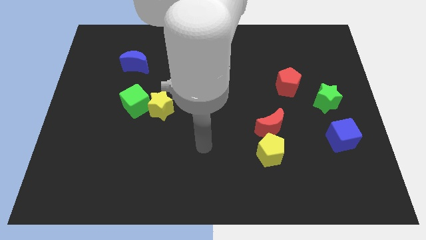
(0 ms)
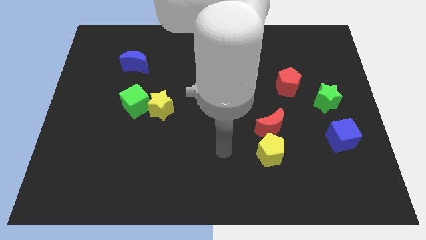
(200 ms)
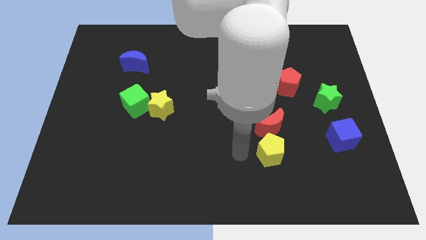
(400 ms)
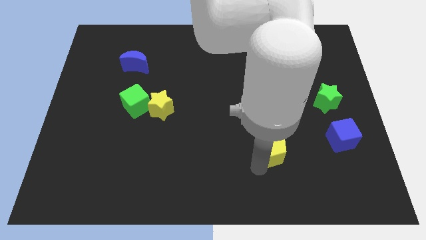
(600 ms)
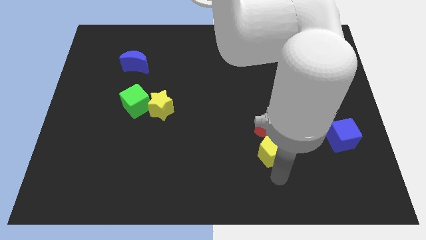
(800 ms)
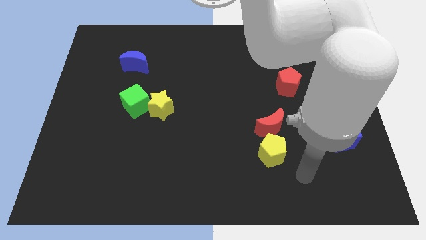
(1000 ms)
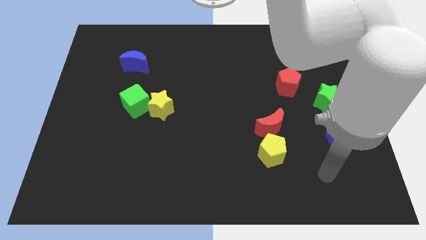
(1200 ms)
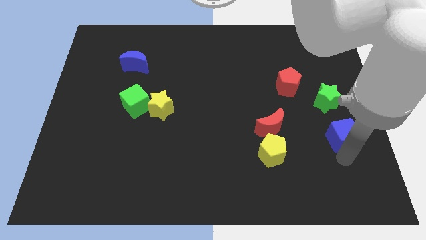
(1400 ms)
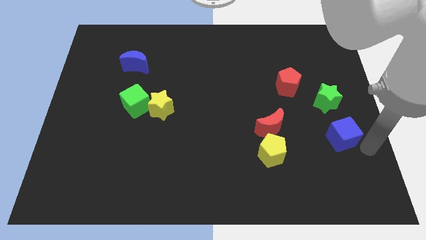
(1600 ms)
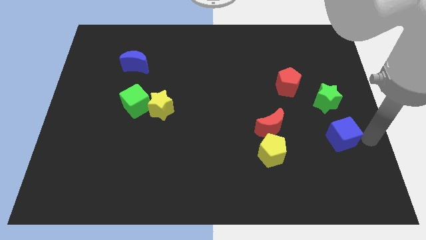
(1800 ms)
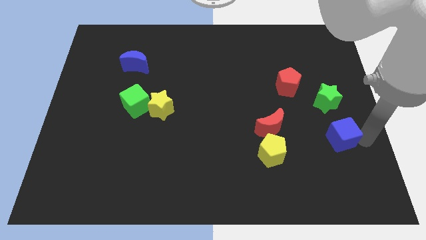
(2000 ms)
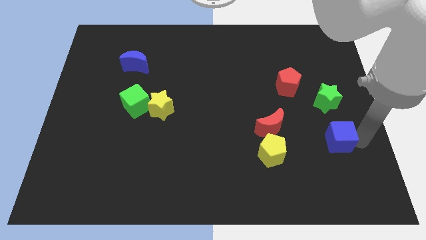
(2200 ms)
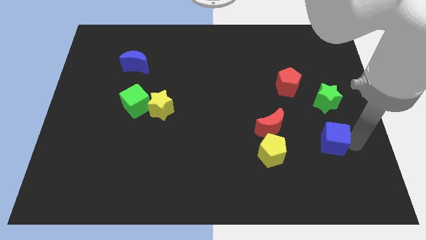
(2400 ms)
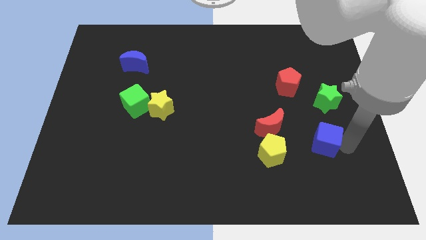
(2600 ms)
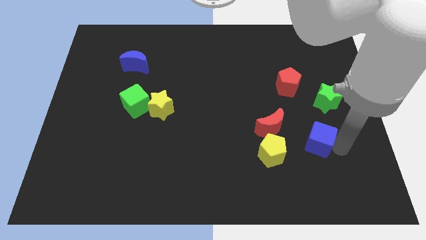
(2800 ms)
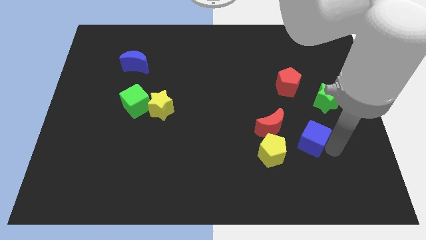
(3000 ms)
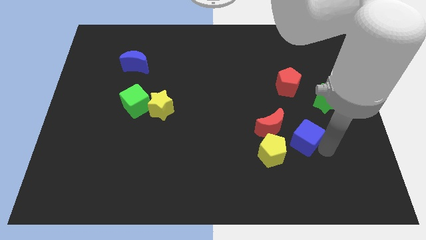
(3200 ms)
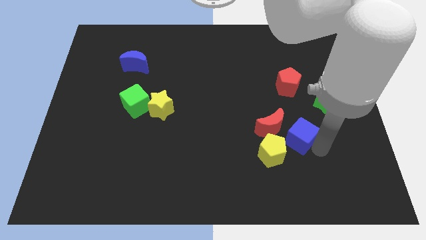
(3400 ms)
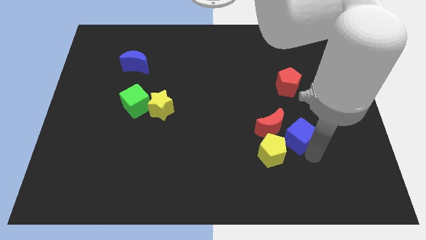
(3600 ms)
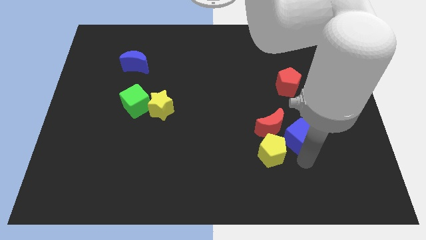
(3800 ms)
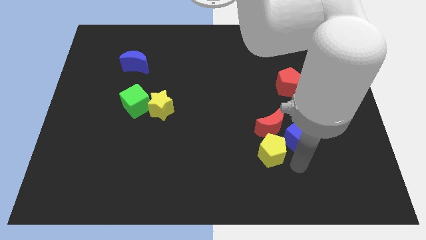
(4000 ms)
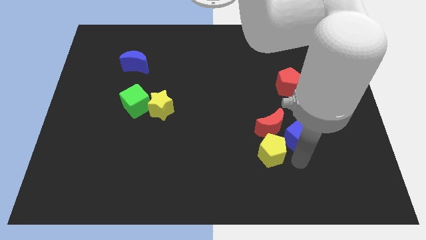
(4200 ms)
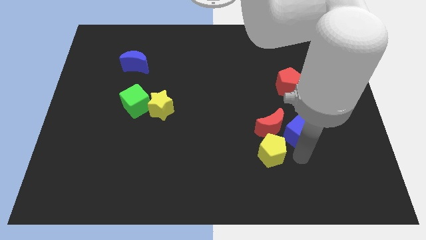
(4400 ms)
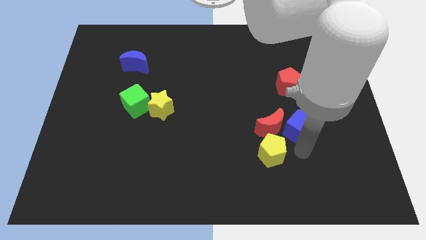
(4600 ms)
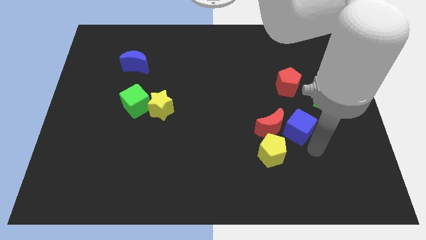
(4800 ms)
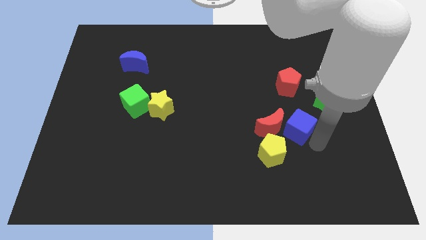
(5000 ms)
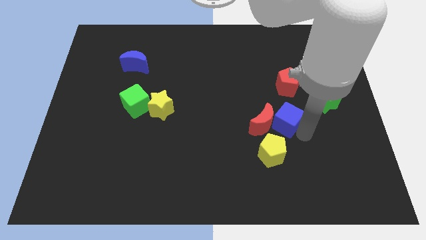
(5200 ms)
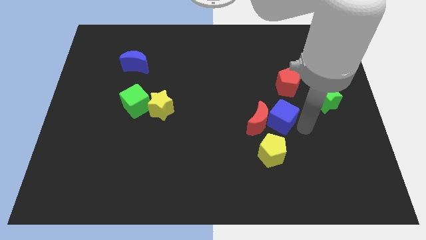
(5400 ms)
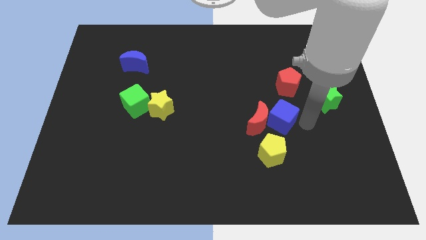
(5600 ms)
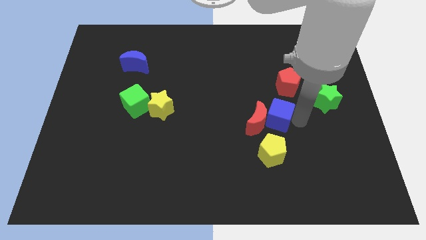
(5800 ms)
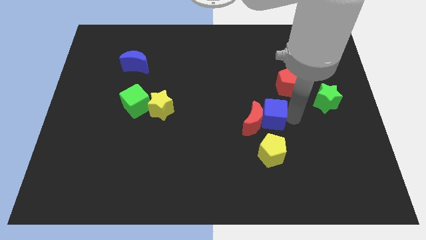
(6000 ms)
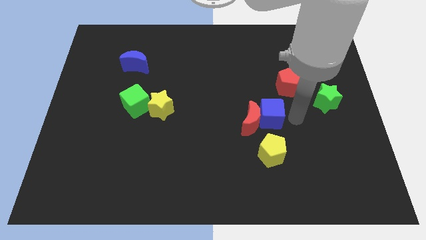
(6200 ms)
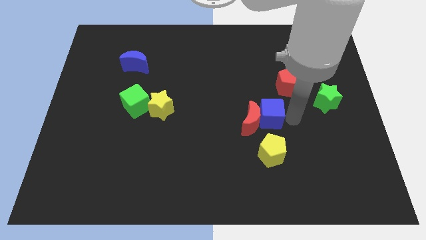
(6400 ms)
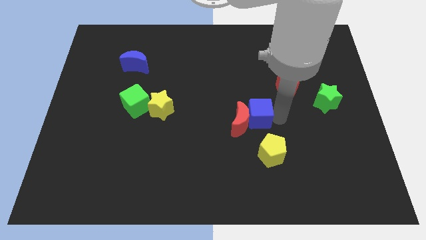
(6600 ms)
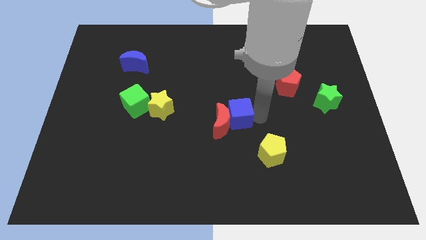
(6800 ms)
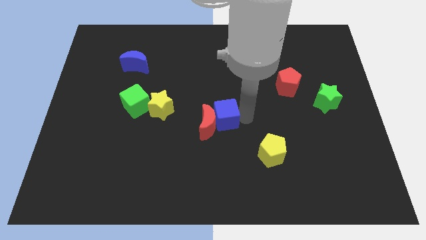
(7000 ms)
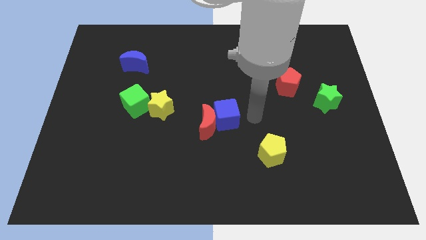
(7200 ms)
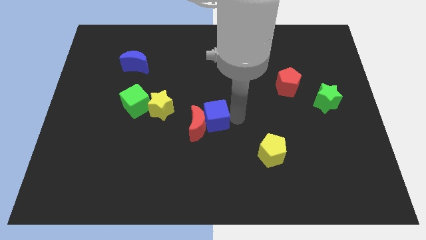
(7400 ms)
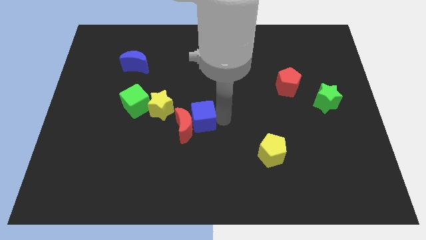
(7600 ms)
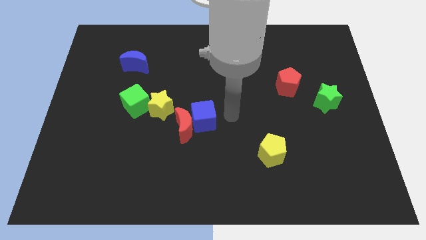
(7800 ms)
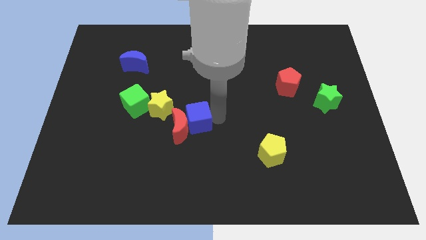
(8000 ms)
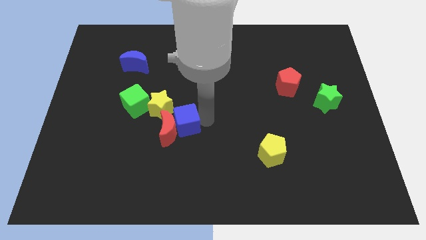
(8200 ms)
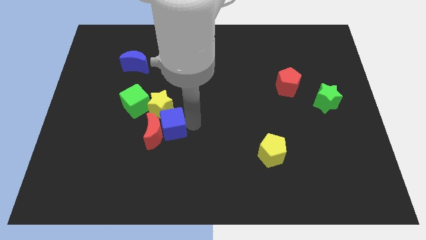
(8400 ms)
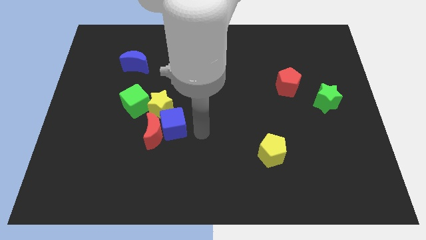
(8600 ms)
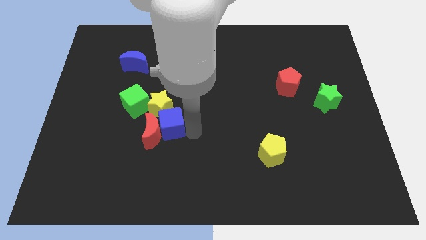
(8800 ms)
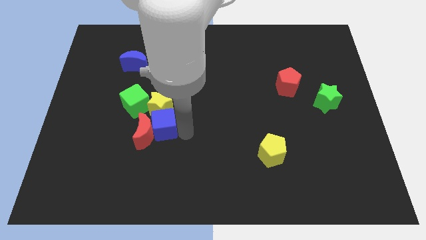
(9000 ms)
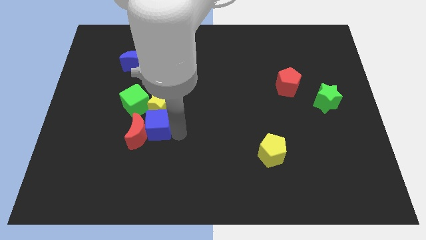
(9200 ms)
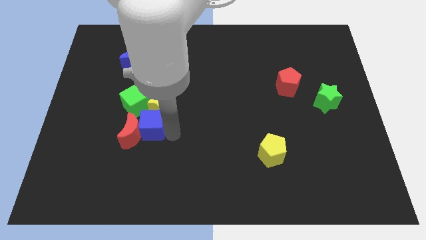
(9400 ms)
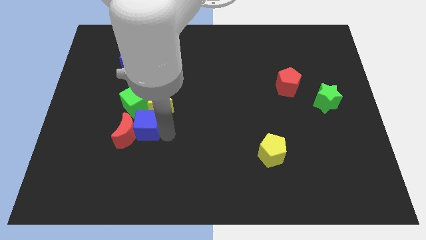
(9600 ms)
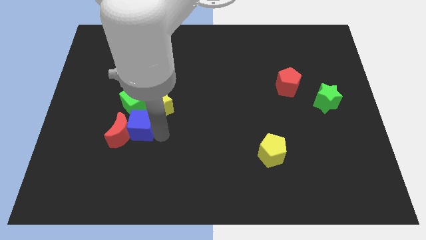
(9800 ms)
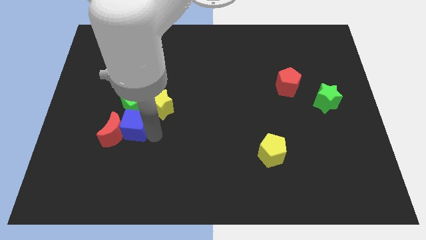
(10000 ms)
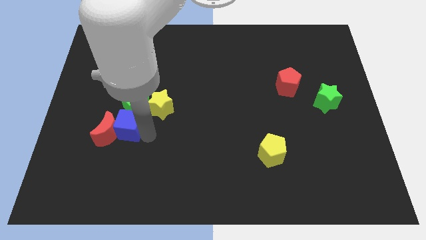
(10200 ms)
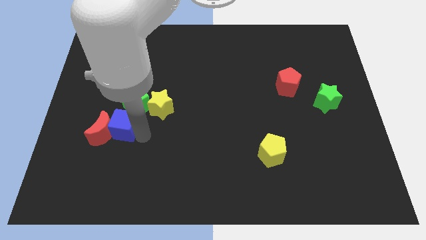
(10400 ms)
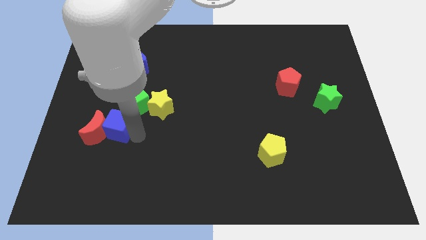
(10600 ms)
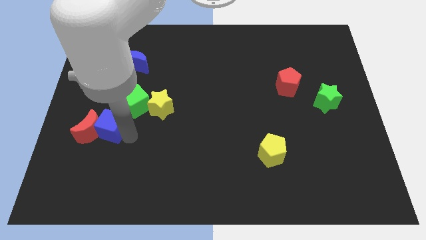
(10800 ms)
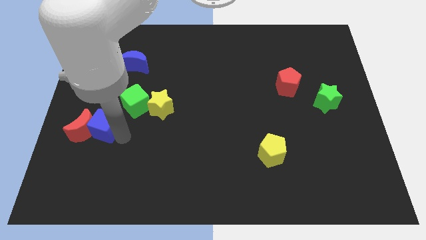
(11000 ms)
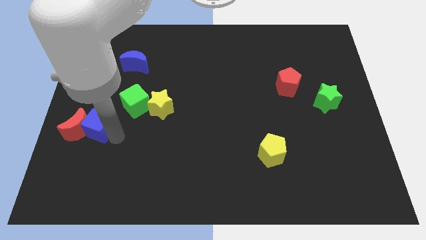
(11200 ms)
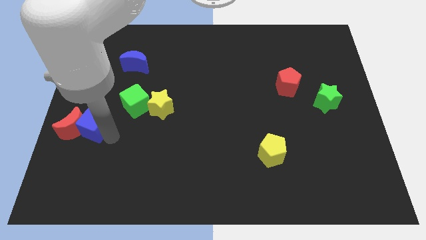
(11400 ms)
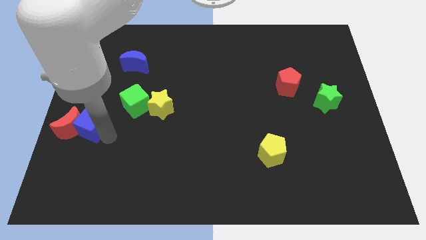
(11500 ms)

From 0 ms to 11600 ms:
move the blue cube to the left side of the board

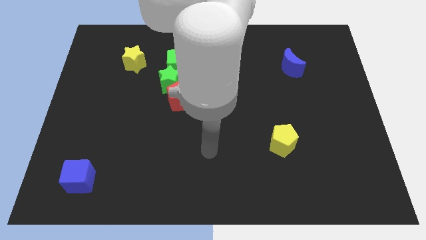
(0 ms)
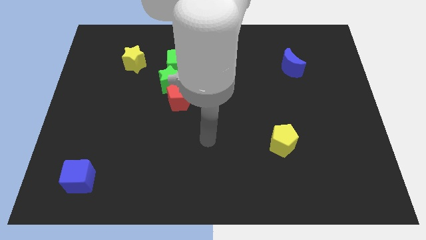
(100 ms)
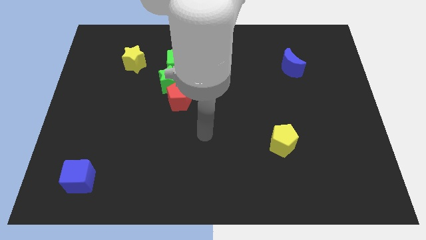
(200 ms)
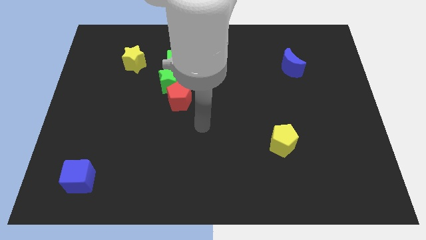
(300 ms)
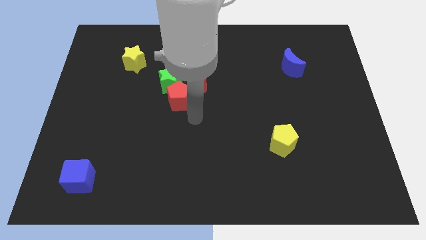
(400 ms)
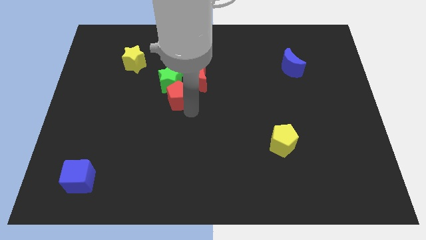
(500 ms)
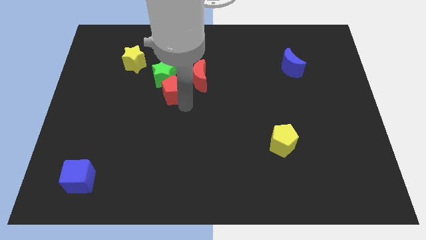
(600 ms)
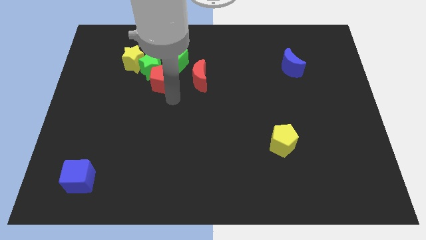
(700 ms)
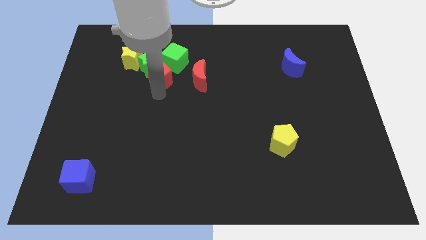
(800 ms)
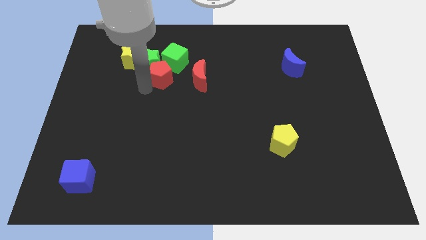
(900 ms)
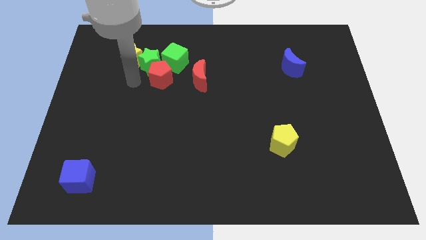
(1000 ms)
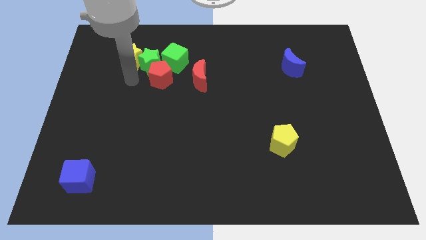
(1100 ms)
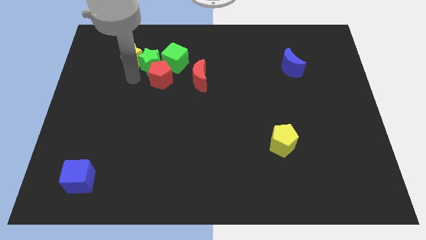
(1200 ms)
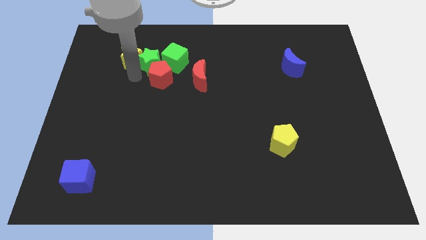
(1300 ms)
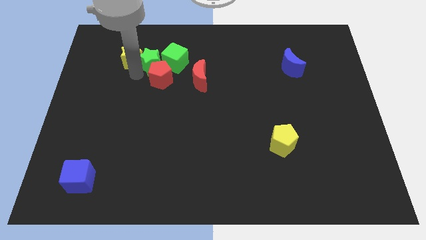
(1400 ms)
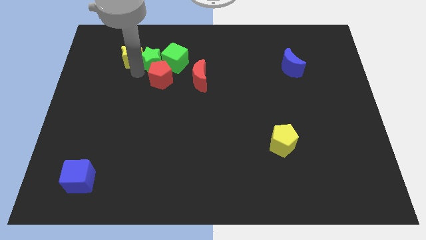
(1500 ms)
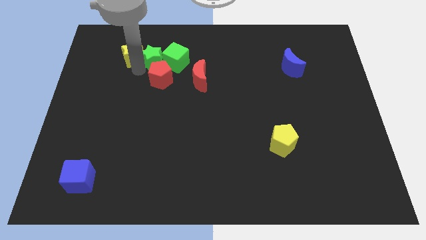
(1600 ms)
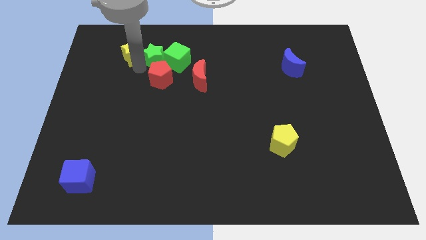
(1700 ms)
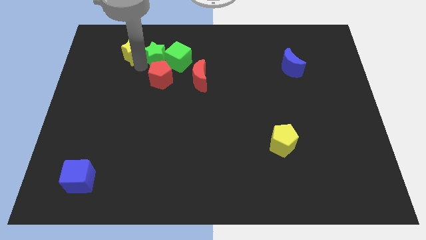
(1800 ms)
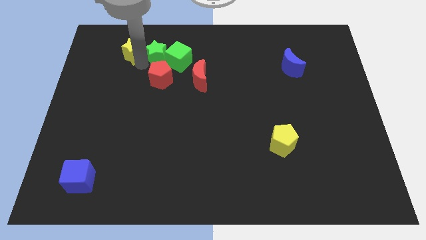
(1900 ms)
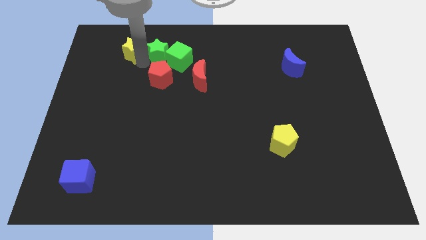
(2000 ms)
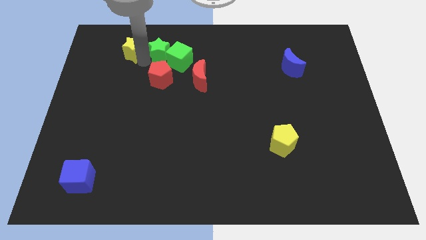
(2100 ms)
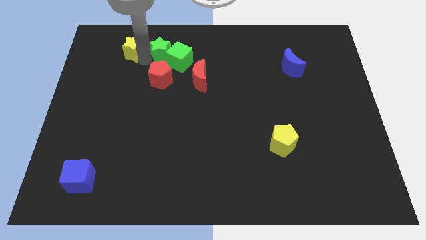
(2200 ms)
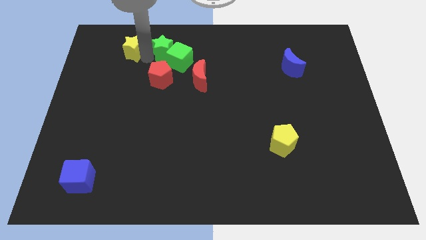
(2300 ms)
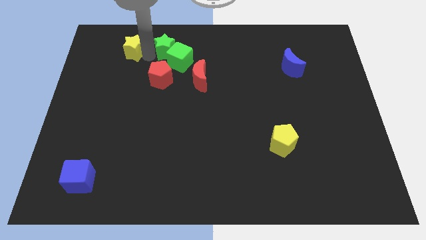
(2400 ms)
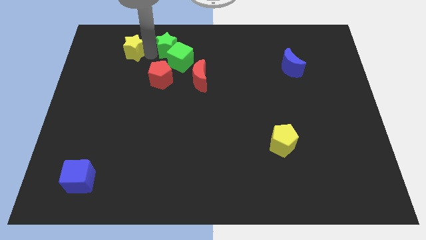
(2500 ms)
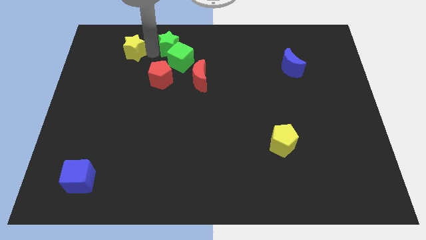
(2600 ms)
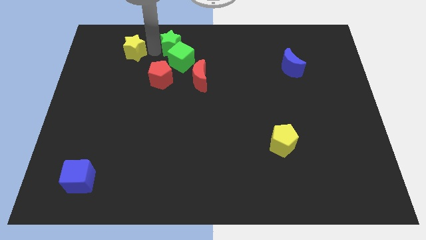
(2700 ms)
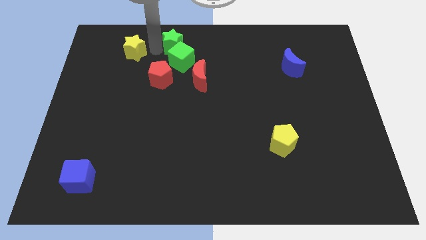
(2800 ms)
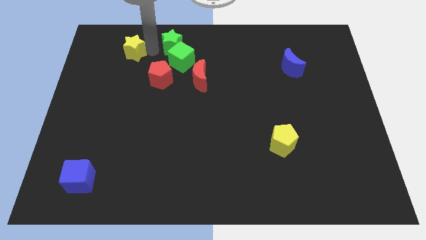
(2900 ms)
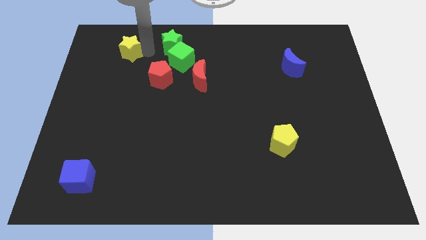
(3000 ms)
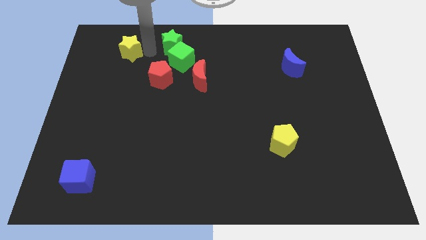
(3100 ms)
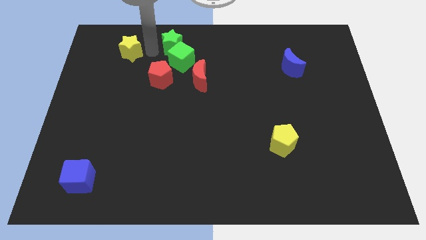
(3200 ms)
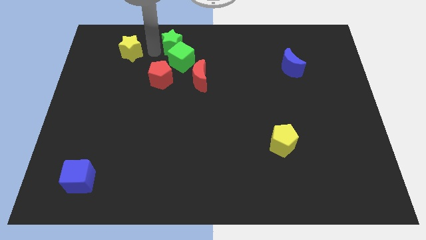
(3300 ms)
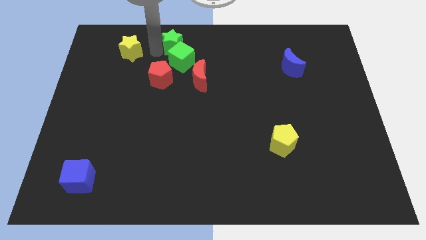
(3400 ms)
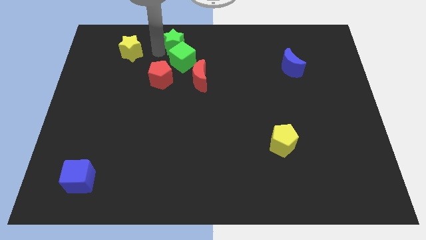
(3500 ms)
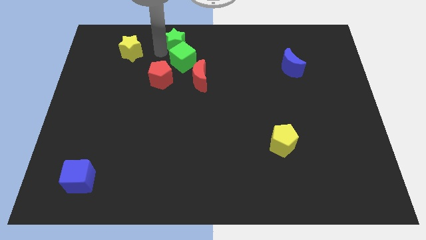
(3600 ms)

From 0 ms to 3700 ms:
put the green star to the towards your base
